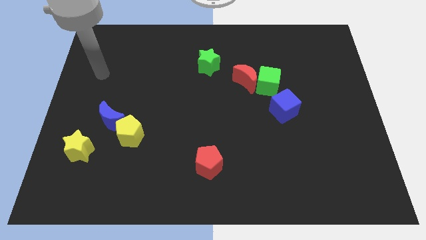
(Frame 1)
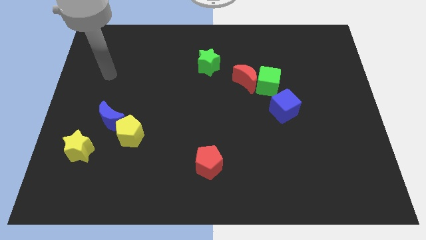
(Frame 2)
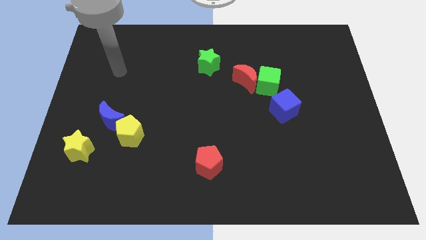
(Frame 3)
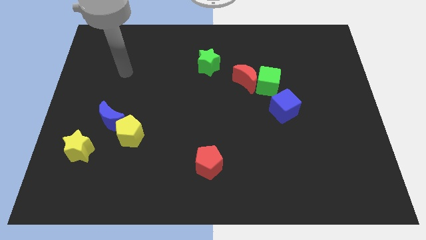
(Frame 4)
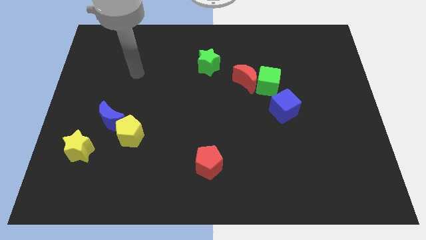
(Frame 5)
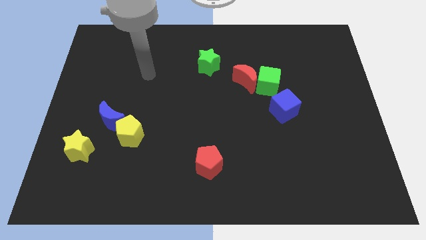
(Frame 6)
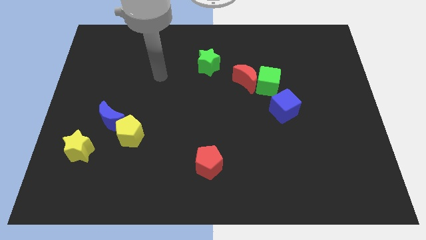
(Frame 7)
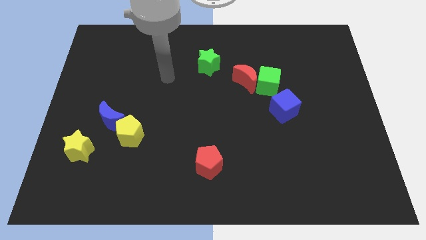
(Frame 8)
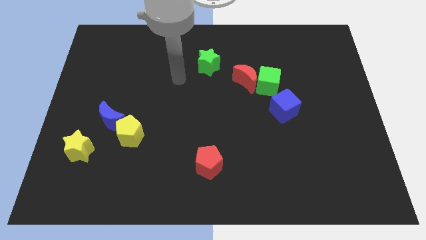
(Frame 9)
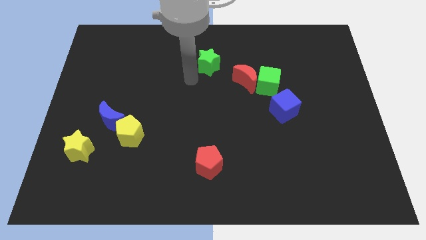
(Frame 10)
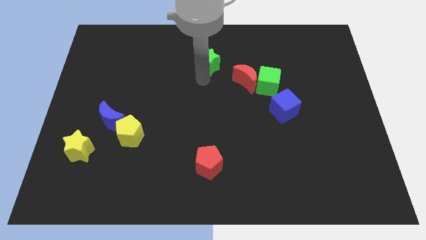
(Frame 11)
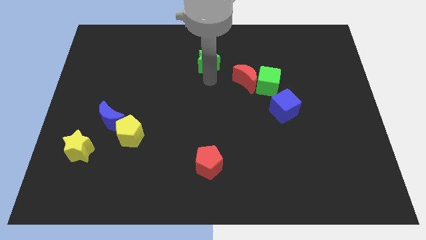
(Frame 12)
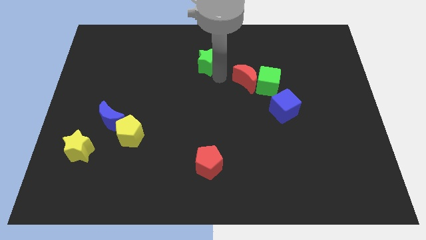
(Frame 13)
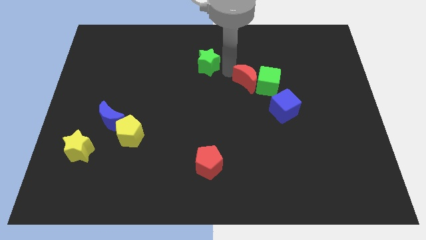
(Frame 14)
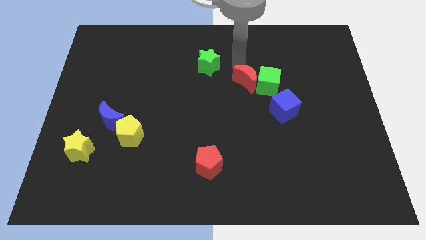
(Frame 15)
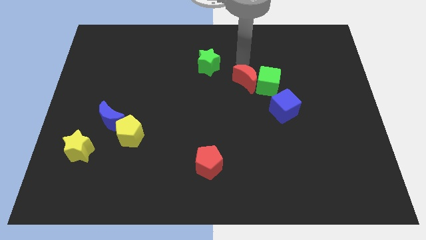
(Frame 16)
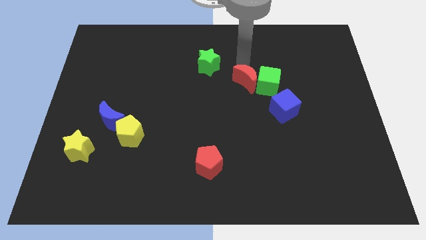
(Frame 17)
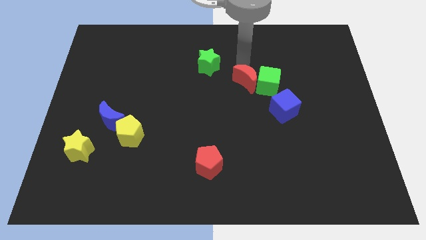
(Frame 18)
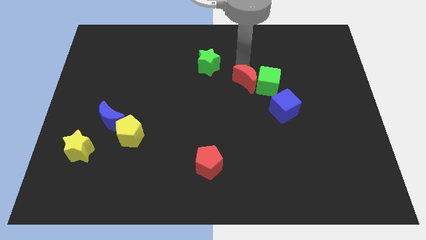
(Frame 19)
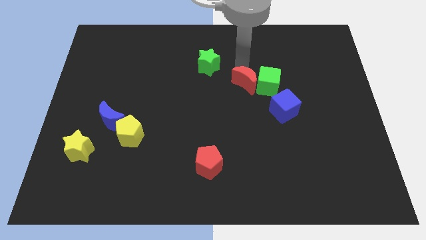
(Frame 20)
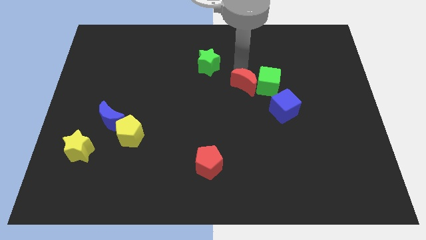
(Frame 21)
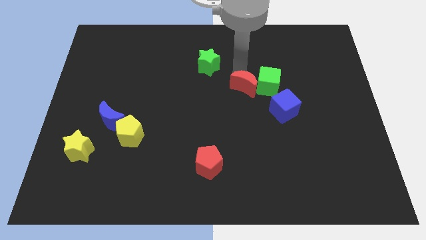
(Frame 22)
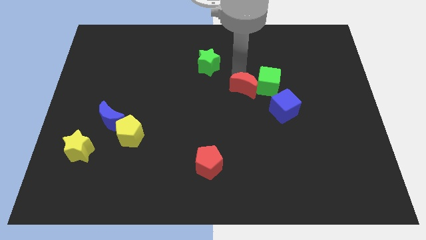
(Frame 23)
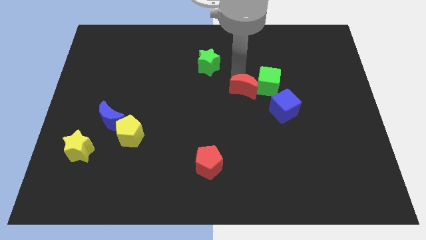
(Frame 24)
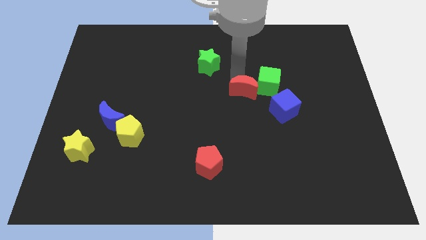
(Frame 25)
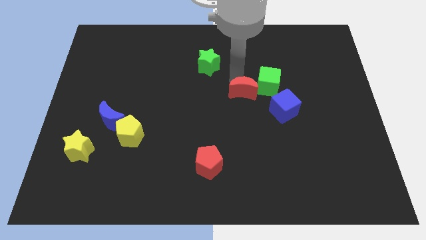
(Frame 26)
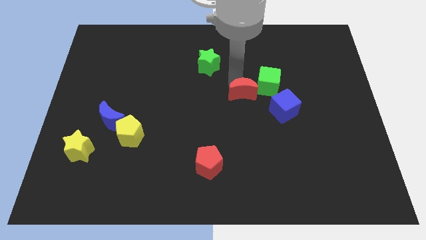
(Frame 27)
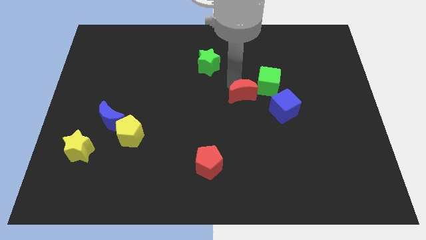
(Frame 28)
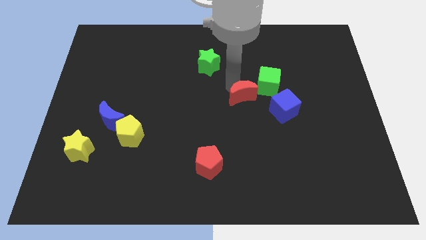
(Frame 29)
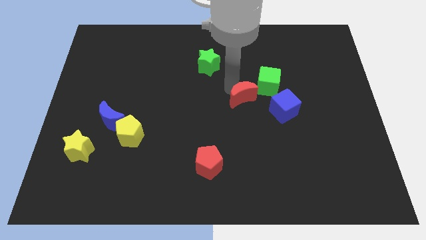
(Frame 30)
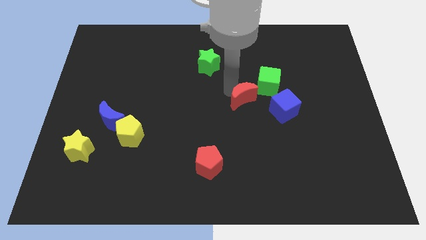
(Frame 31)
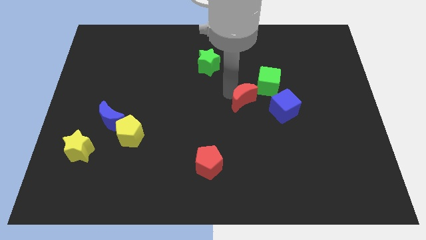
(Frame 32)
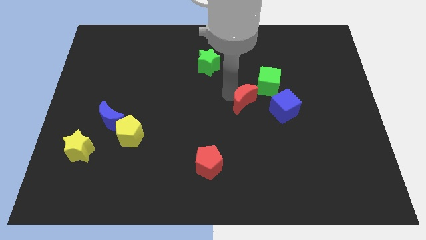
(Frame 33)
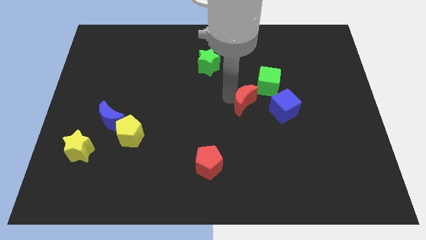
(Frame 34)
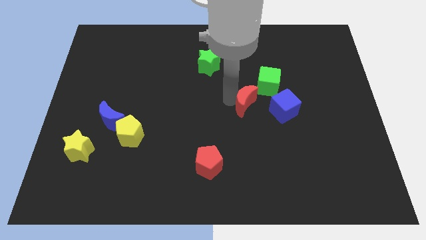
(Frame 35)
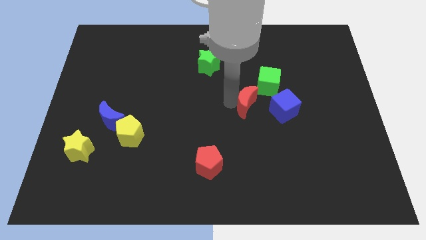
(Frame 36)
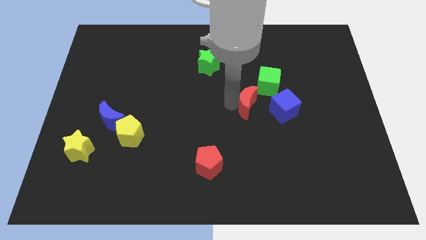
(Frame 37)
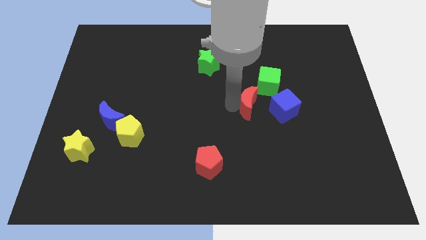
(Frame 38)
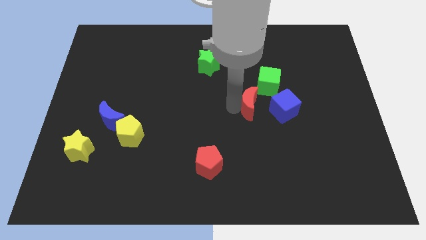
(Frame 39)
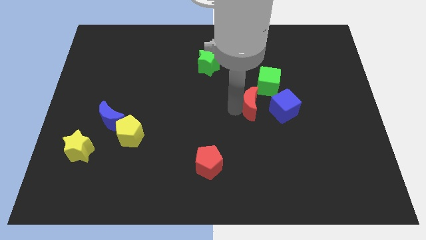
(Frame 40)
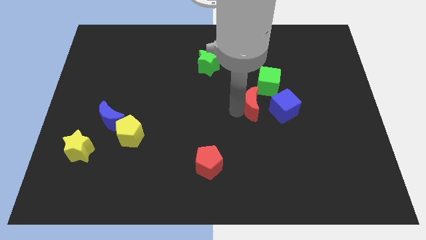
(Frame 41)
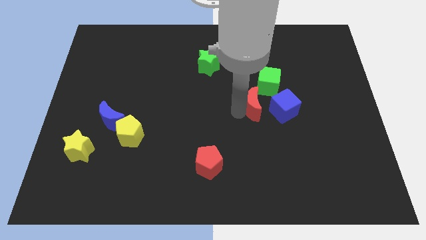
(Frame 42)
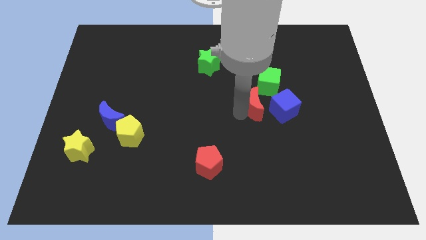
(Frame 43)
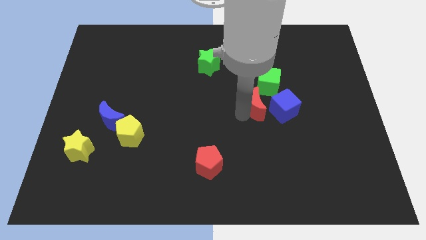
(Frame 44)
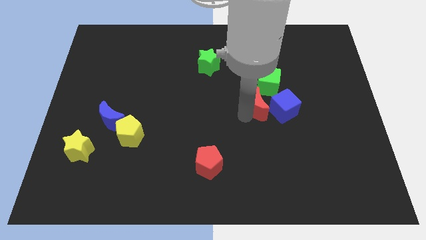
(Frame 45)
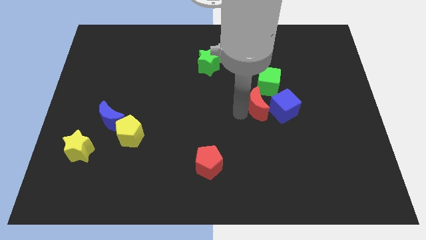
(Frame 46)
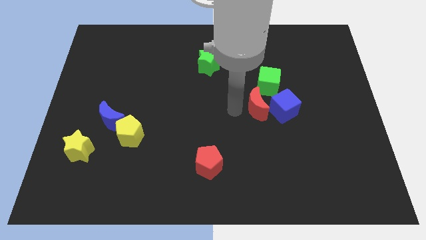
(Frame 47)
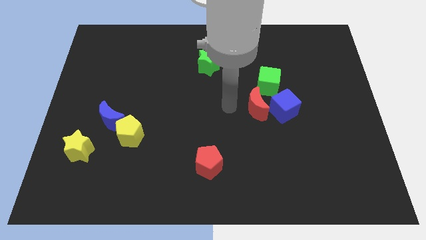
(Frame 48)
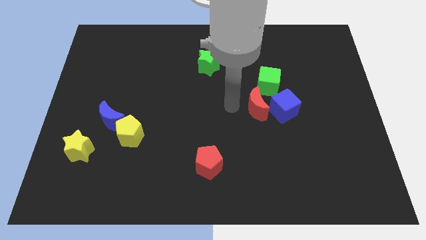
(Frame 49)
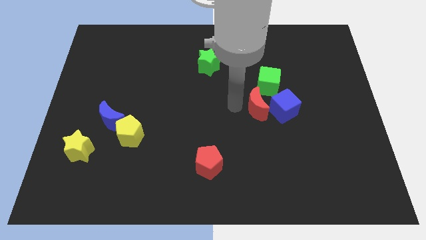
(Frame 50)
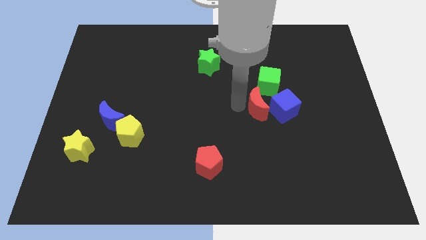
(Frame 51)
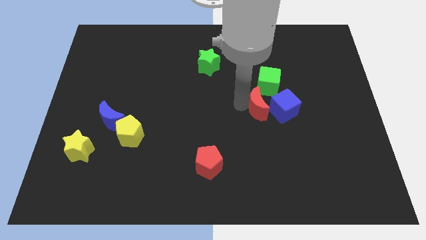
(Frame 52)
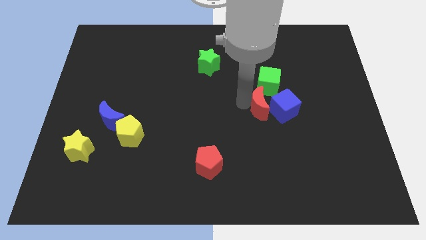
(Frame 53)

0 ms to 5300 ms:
push the red moon close to the blue cube

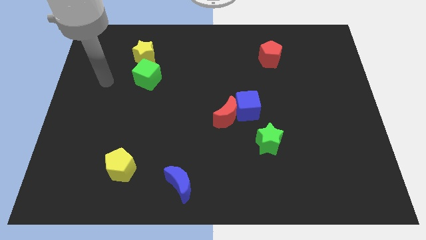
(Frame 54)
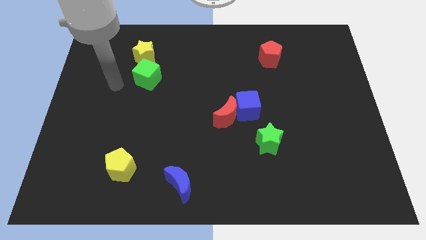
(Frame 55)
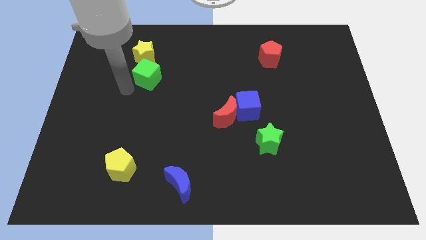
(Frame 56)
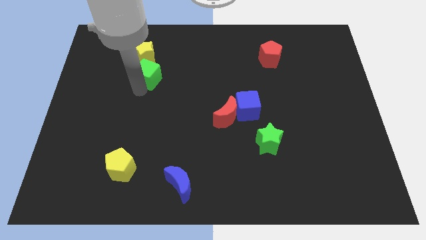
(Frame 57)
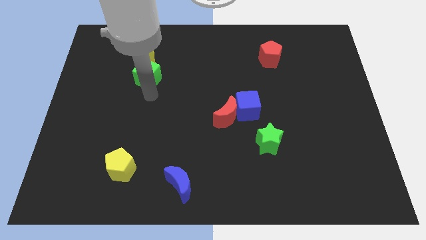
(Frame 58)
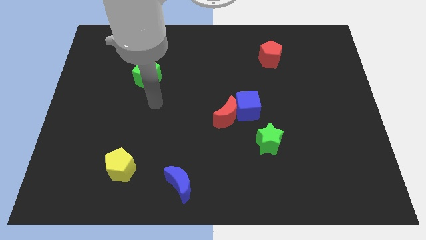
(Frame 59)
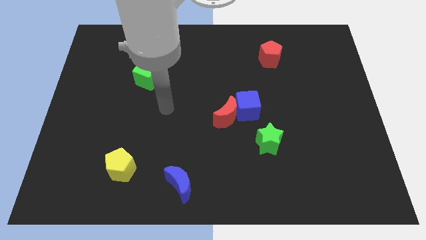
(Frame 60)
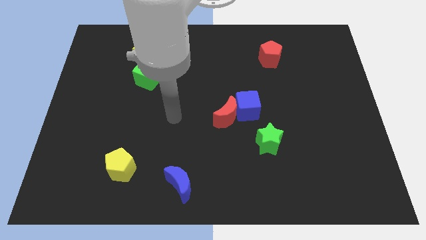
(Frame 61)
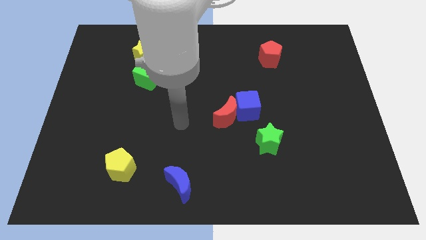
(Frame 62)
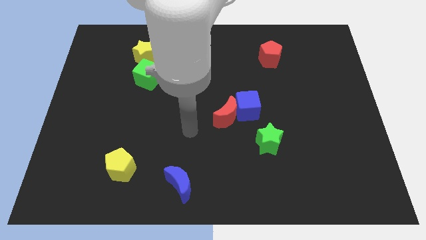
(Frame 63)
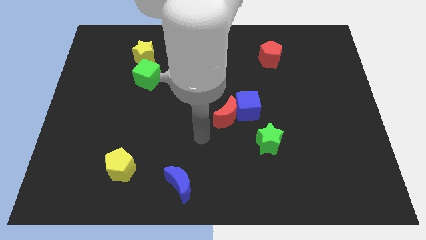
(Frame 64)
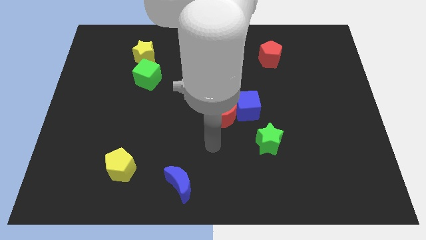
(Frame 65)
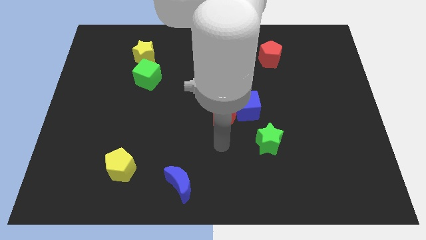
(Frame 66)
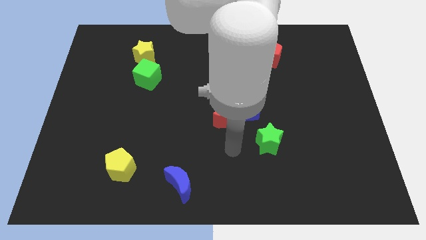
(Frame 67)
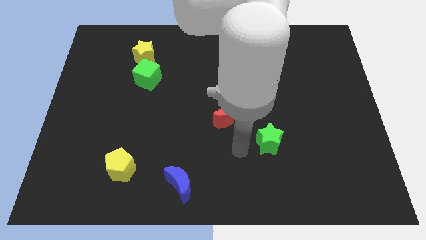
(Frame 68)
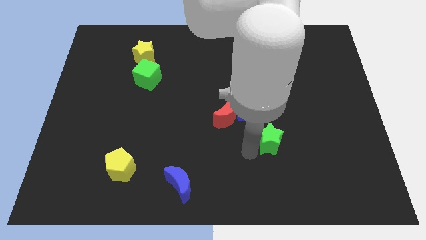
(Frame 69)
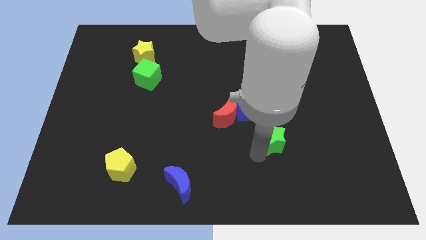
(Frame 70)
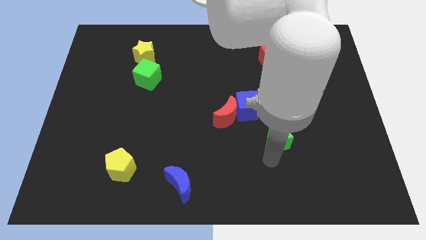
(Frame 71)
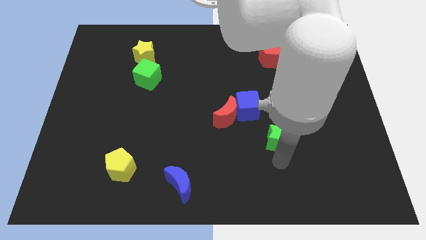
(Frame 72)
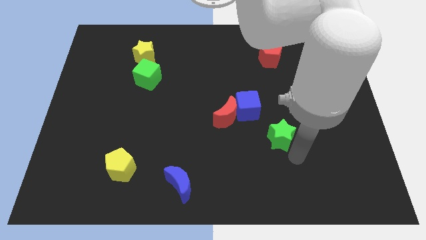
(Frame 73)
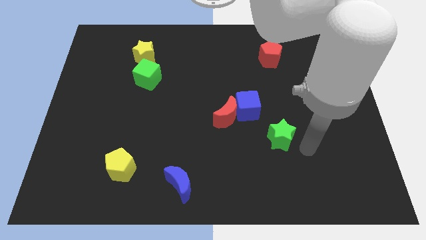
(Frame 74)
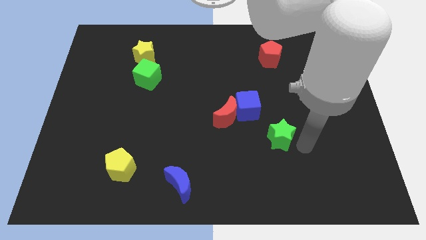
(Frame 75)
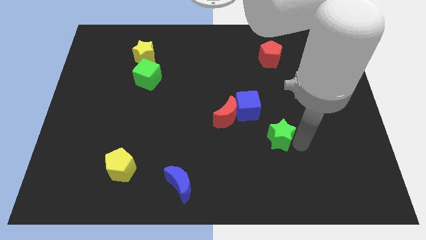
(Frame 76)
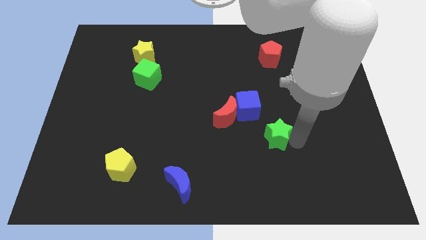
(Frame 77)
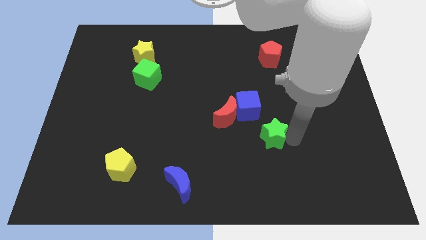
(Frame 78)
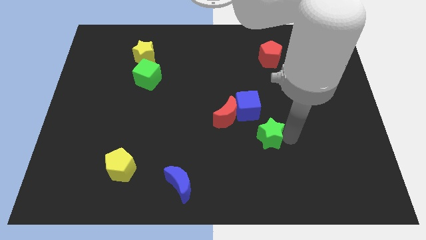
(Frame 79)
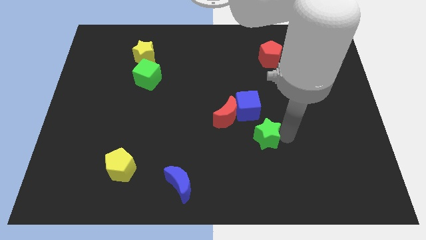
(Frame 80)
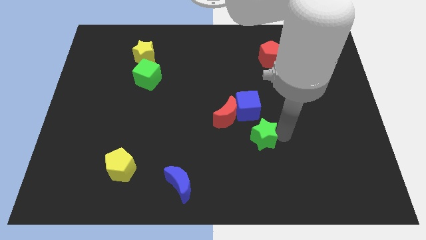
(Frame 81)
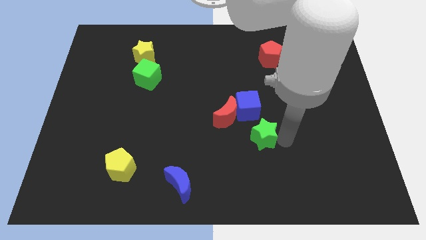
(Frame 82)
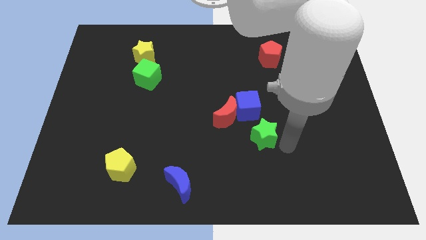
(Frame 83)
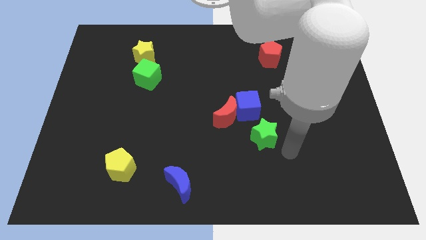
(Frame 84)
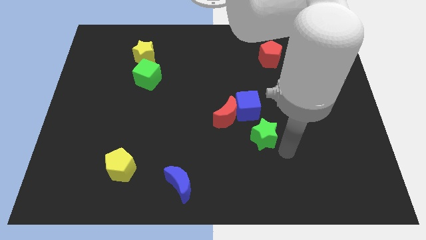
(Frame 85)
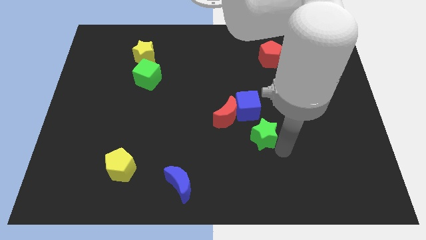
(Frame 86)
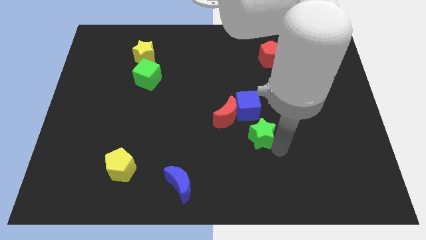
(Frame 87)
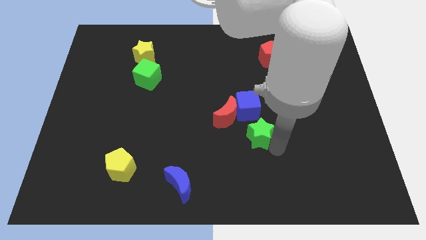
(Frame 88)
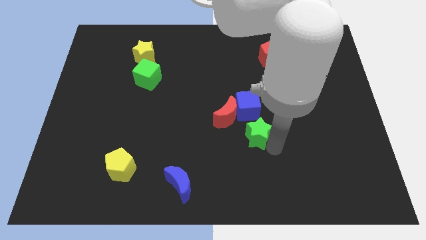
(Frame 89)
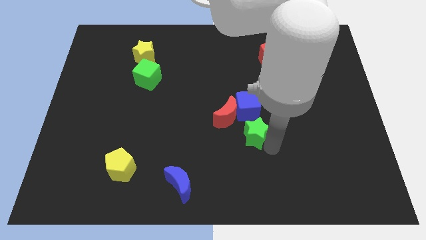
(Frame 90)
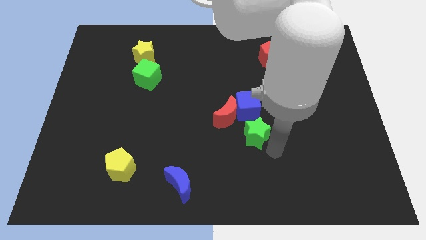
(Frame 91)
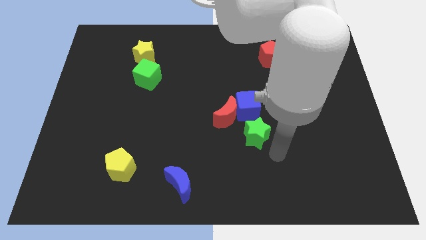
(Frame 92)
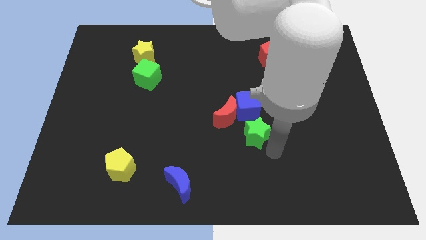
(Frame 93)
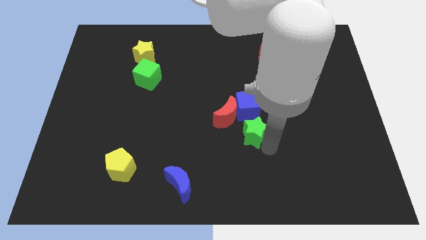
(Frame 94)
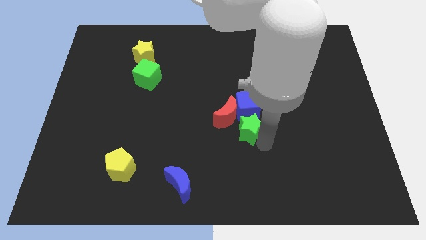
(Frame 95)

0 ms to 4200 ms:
slide the green star to the red moon
